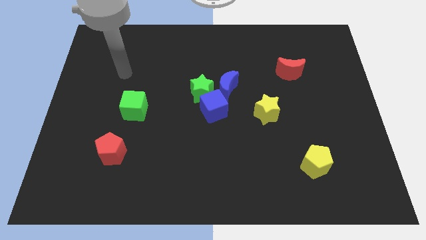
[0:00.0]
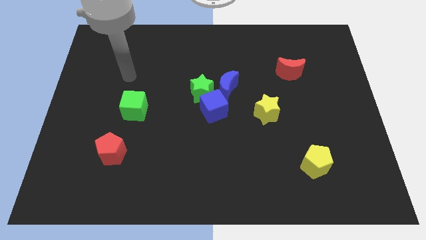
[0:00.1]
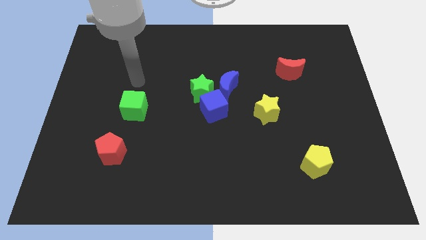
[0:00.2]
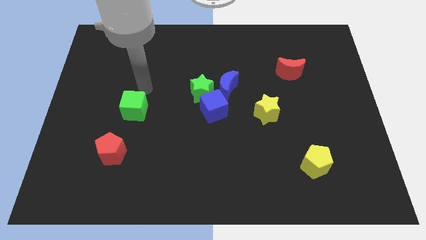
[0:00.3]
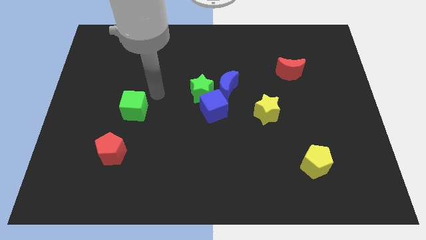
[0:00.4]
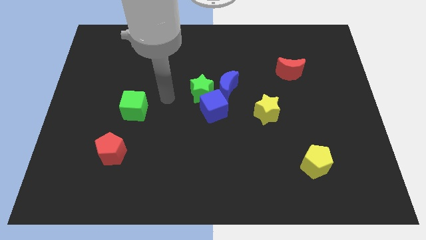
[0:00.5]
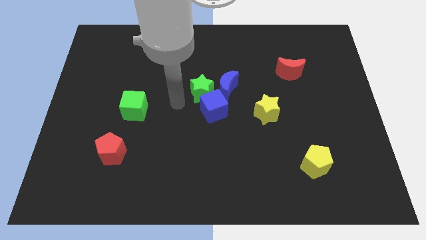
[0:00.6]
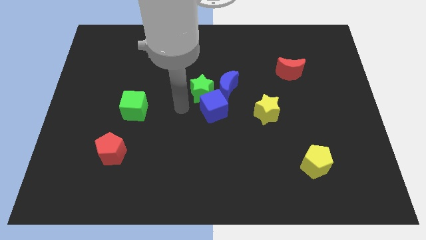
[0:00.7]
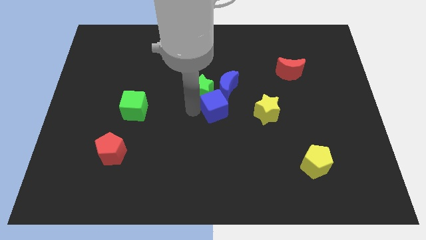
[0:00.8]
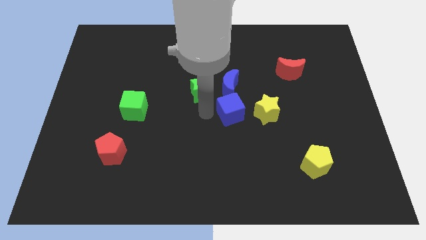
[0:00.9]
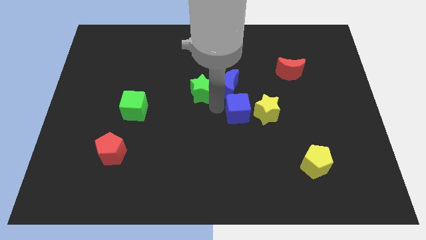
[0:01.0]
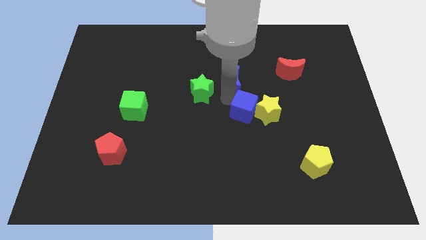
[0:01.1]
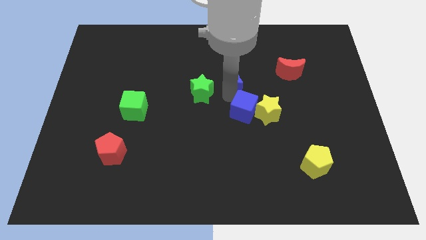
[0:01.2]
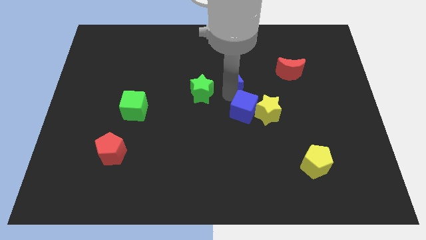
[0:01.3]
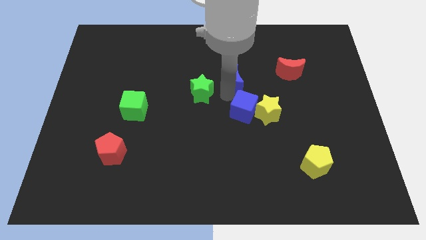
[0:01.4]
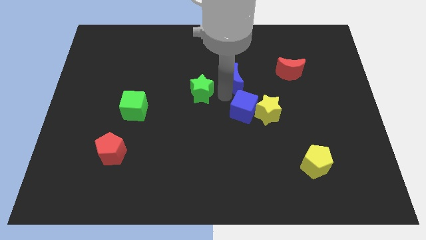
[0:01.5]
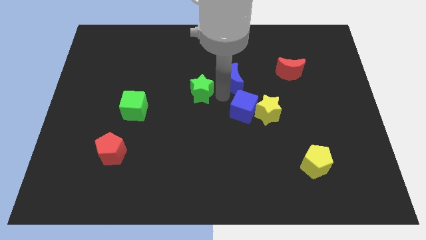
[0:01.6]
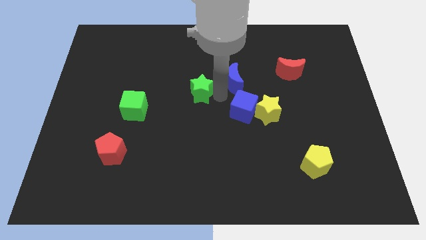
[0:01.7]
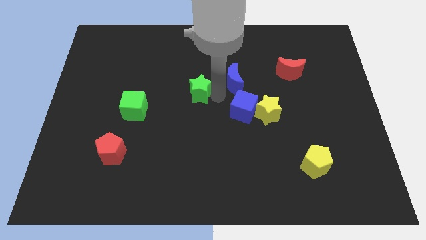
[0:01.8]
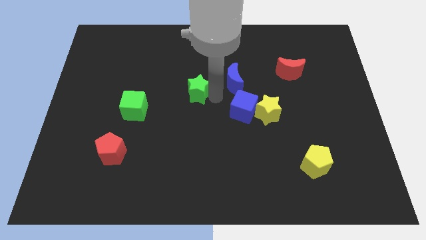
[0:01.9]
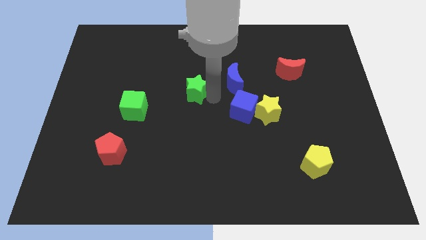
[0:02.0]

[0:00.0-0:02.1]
pull the green star apart from the blue cube and blue moon

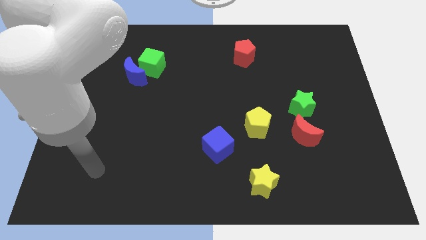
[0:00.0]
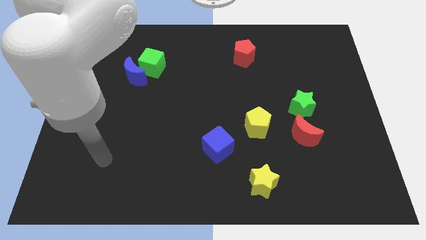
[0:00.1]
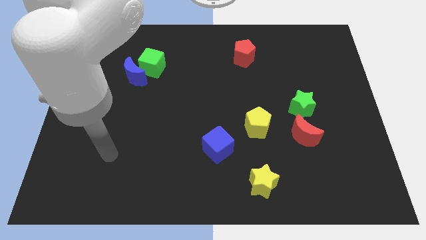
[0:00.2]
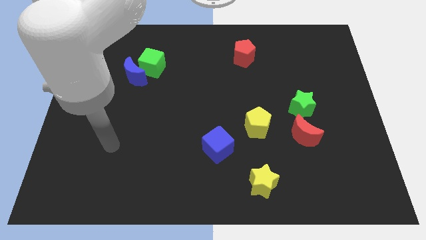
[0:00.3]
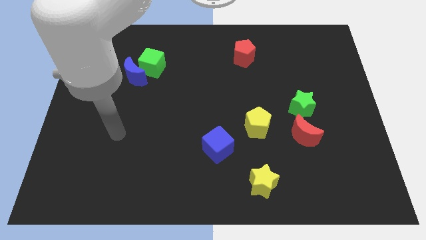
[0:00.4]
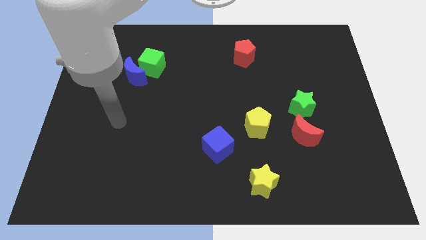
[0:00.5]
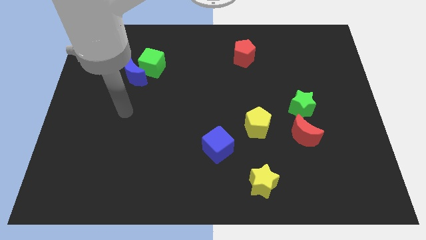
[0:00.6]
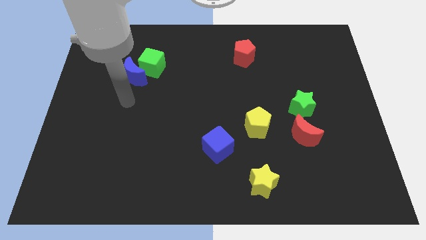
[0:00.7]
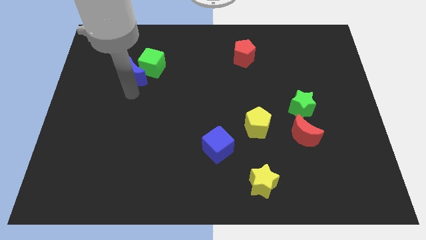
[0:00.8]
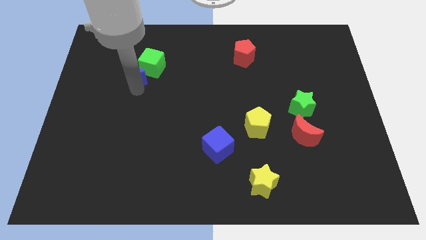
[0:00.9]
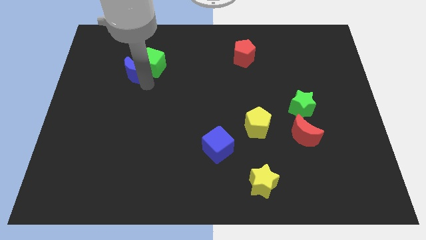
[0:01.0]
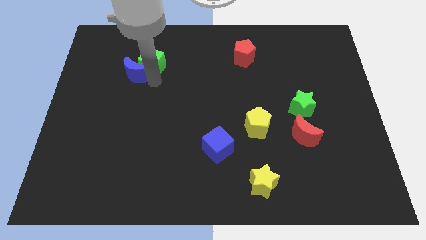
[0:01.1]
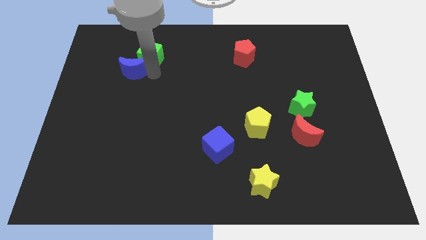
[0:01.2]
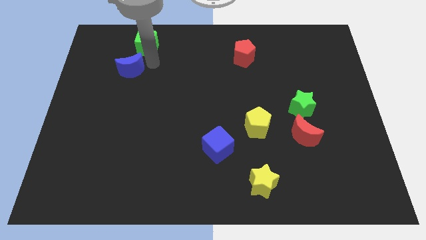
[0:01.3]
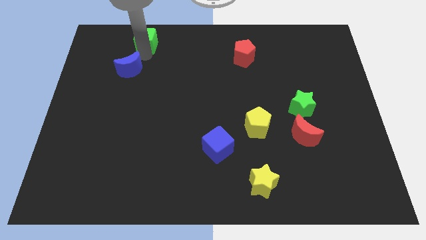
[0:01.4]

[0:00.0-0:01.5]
move the blue moon away from the green cube

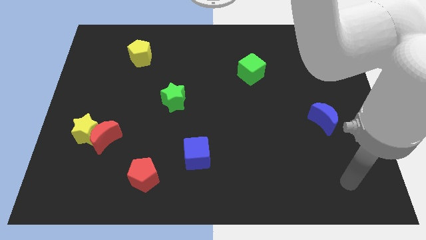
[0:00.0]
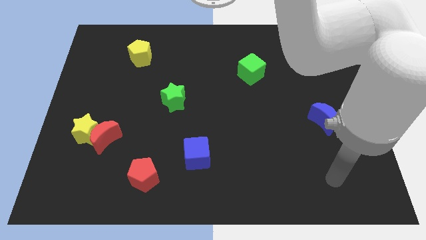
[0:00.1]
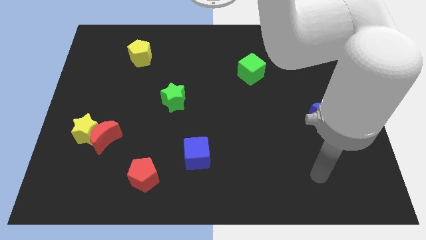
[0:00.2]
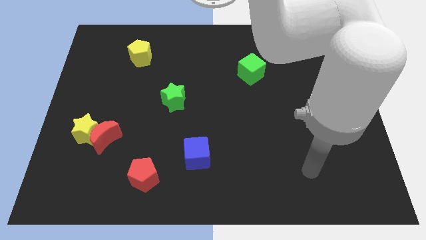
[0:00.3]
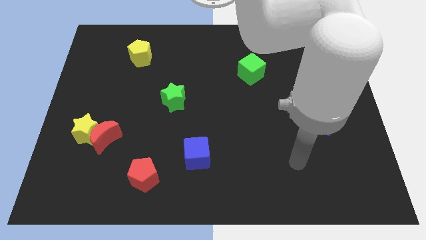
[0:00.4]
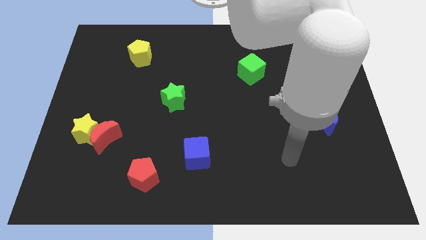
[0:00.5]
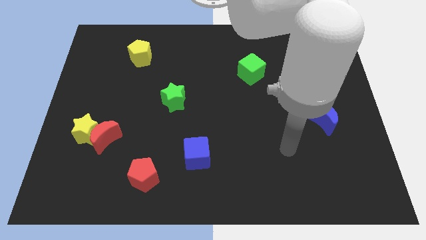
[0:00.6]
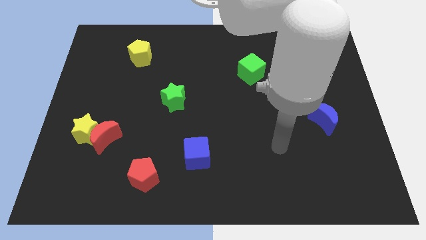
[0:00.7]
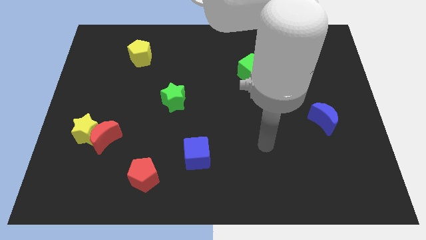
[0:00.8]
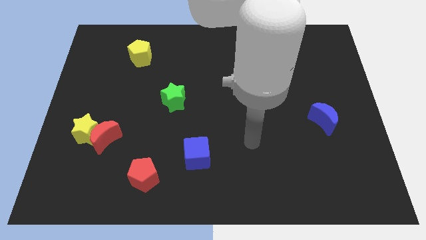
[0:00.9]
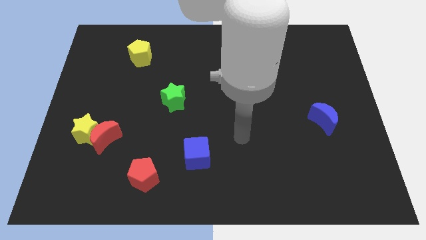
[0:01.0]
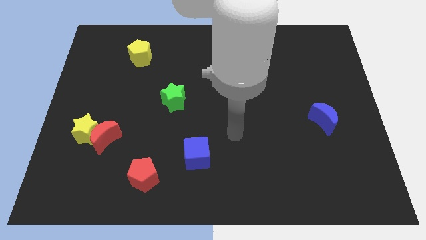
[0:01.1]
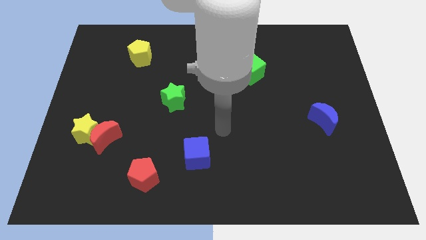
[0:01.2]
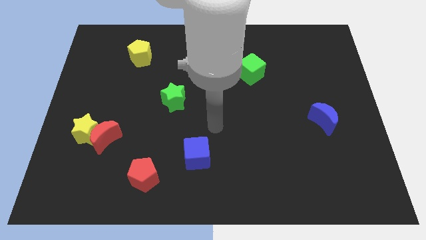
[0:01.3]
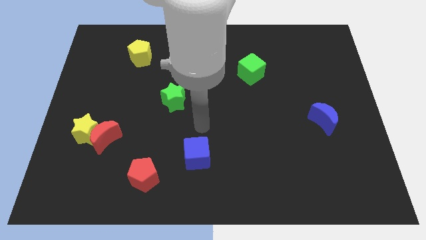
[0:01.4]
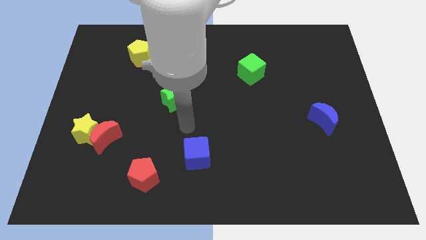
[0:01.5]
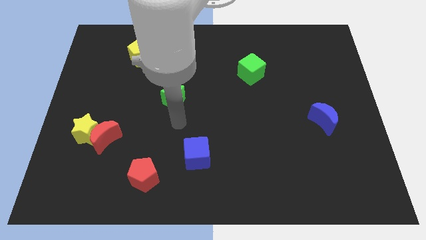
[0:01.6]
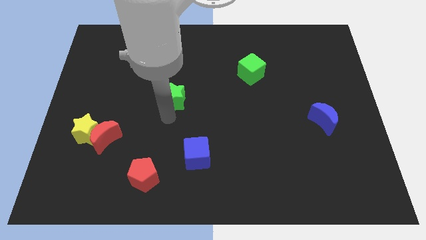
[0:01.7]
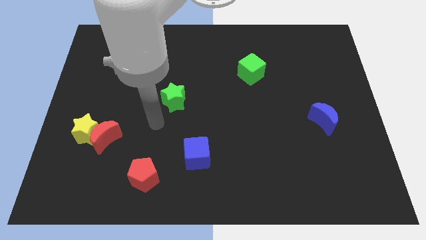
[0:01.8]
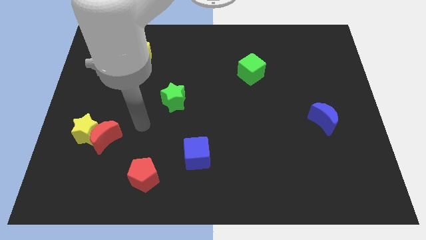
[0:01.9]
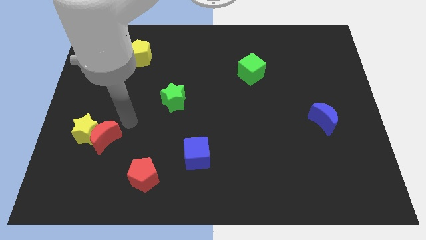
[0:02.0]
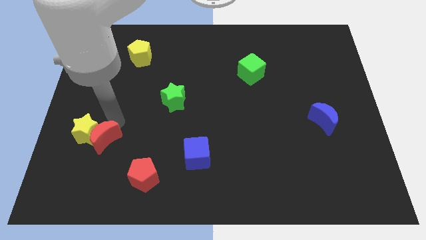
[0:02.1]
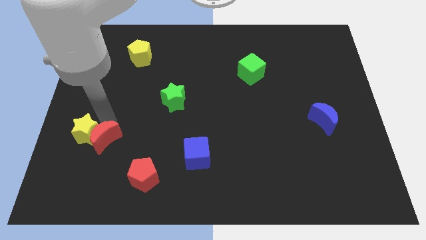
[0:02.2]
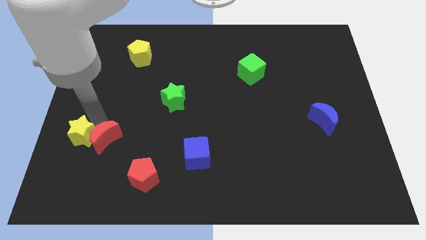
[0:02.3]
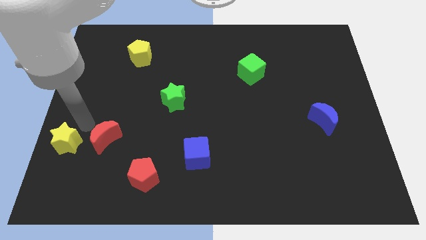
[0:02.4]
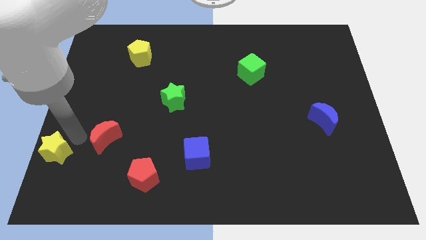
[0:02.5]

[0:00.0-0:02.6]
pull the red moon apart from the yellow star

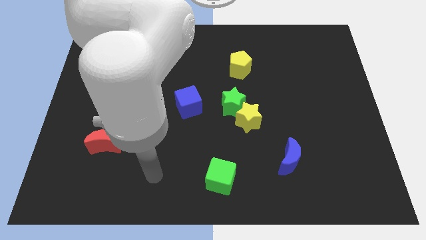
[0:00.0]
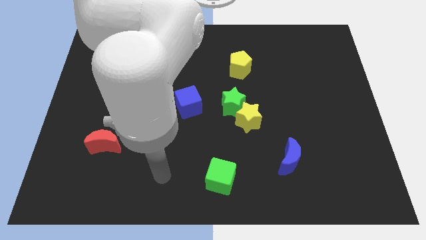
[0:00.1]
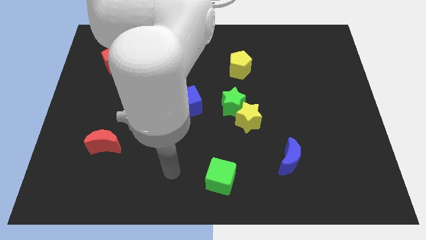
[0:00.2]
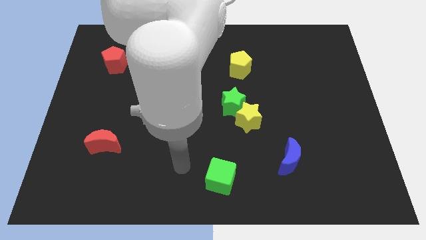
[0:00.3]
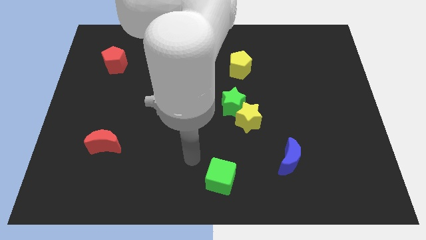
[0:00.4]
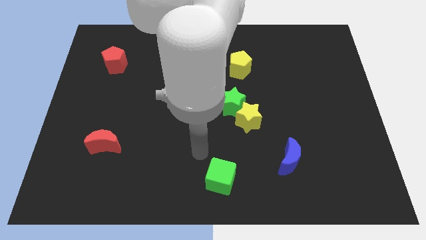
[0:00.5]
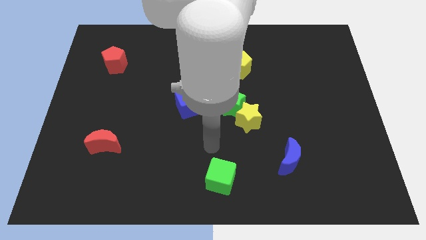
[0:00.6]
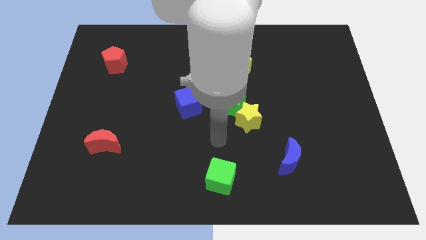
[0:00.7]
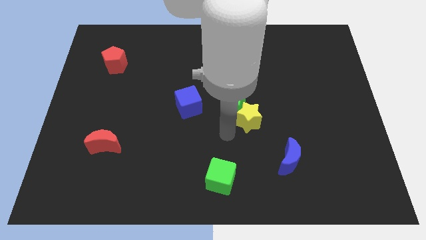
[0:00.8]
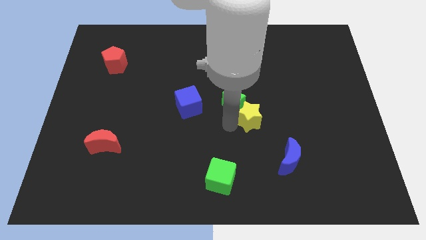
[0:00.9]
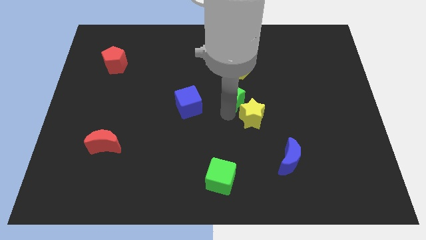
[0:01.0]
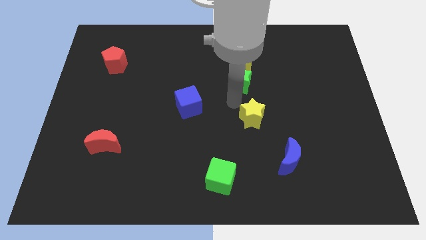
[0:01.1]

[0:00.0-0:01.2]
pull the yellow star apart from the green star

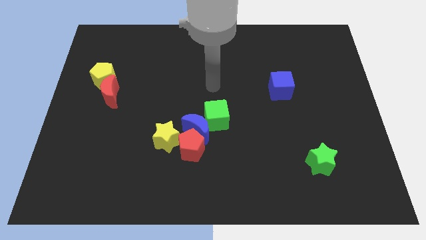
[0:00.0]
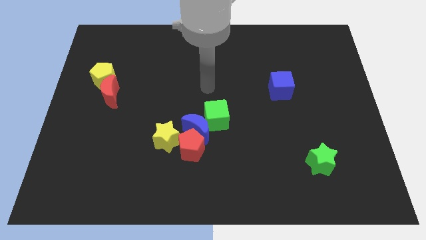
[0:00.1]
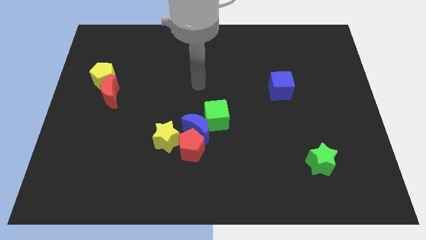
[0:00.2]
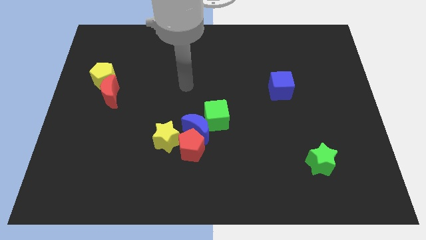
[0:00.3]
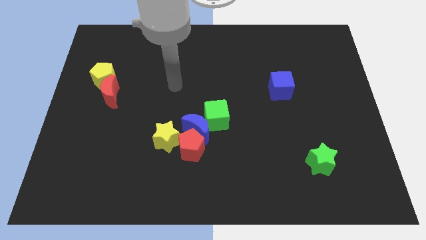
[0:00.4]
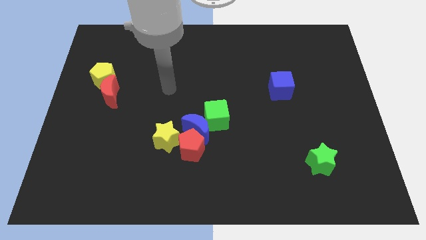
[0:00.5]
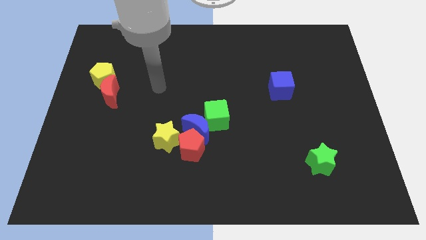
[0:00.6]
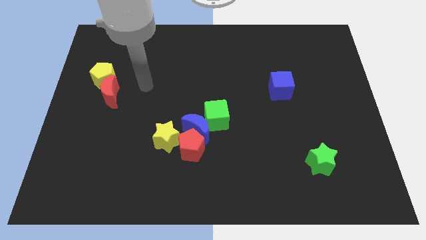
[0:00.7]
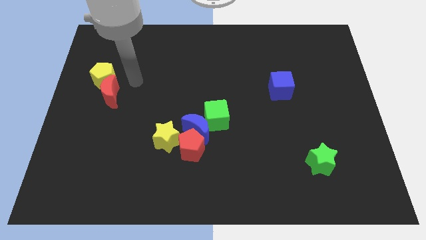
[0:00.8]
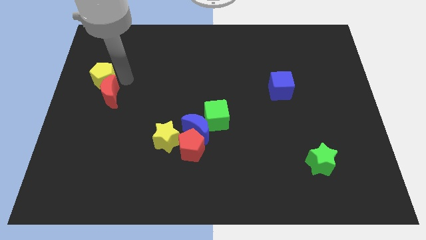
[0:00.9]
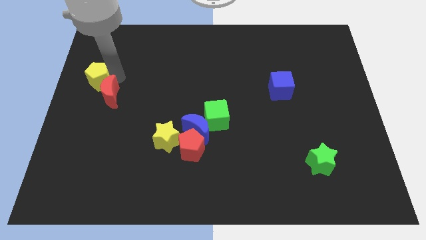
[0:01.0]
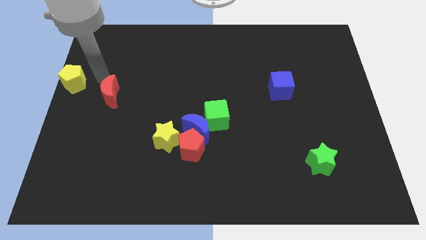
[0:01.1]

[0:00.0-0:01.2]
move the red moon away from the yellow pentagon

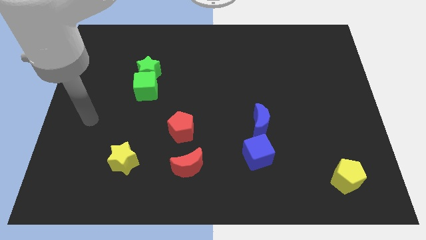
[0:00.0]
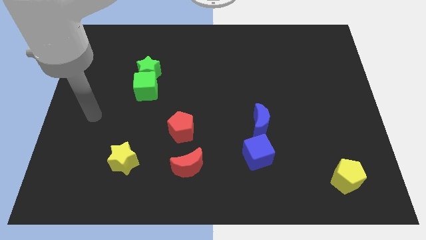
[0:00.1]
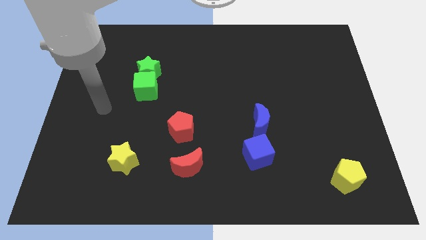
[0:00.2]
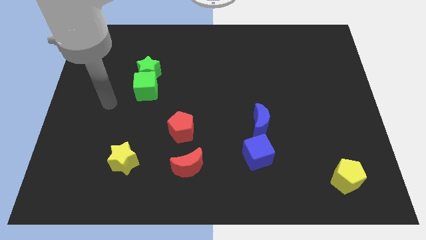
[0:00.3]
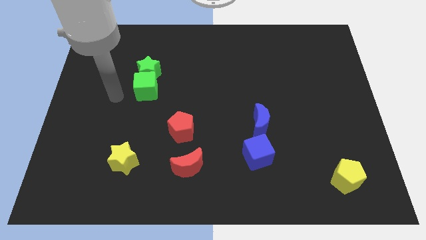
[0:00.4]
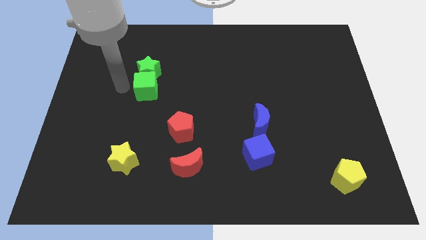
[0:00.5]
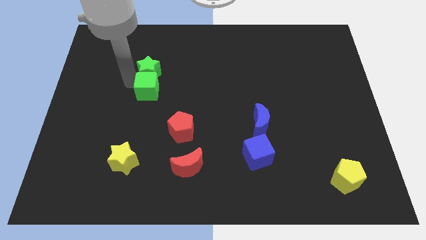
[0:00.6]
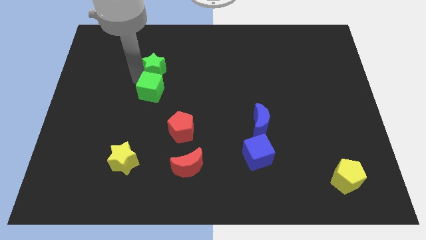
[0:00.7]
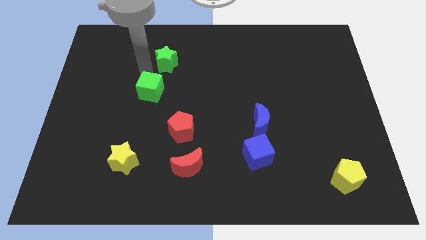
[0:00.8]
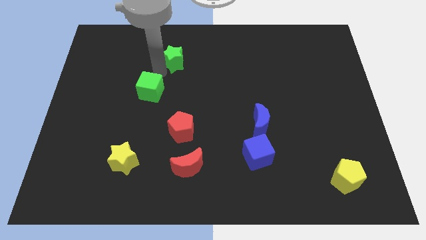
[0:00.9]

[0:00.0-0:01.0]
separate the green cube from the green star
